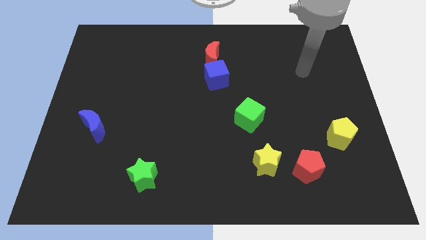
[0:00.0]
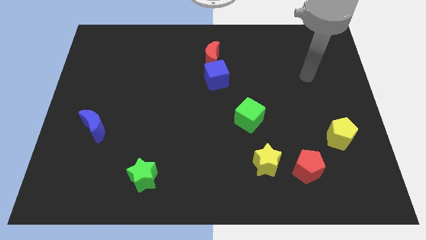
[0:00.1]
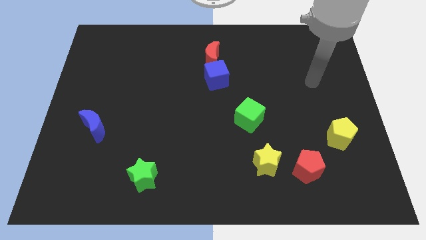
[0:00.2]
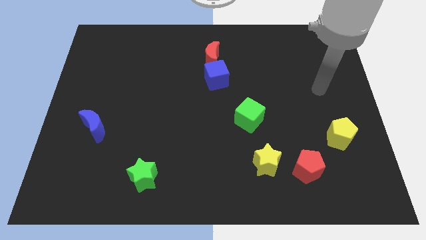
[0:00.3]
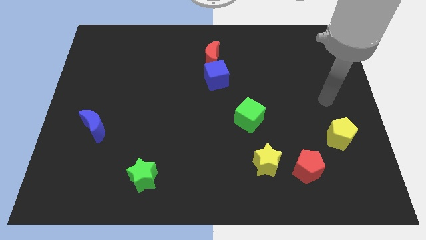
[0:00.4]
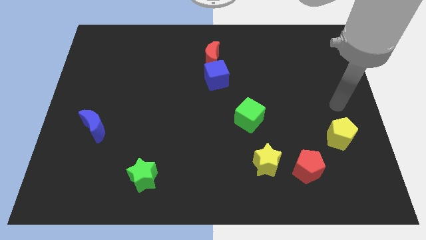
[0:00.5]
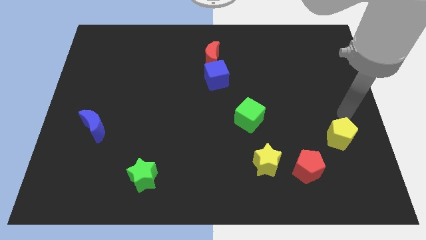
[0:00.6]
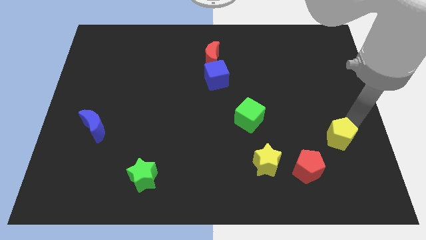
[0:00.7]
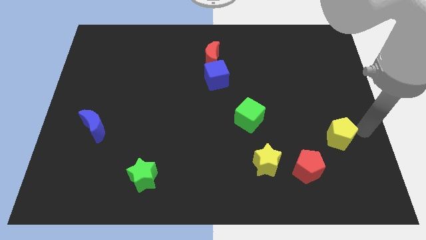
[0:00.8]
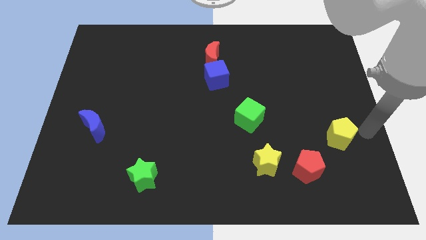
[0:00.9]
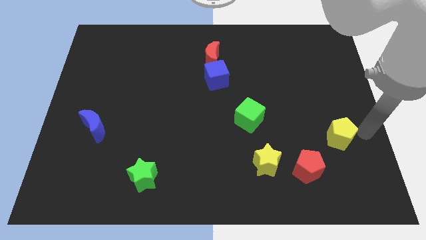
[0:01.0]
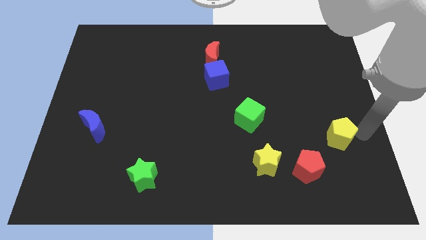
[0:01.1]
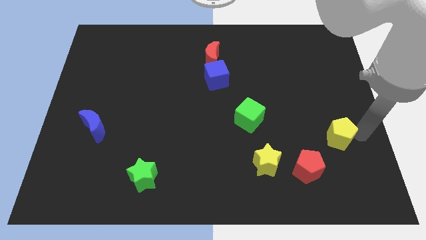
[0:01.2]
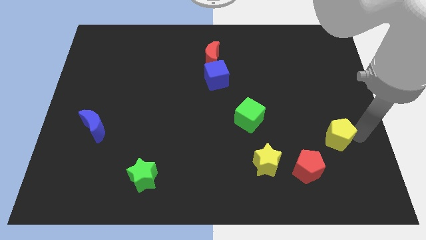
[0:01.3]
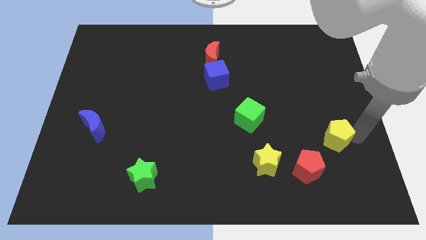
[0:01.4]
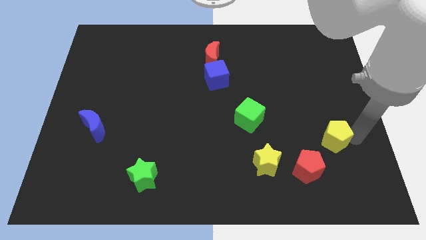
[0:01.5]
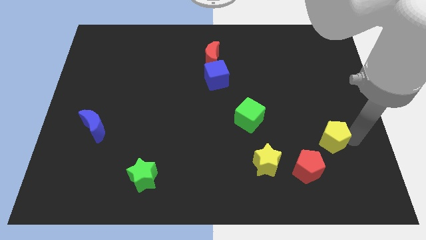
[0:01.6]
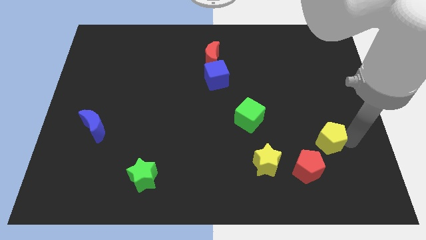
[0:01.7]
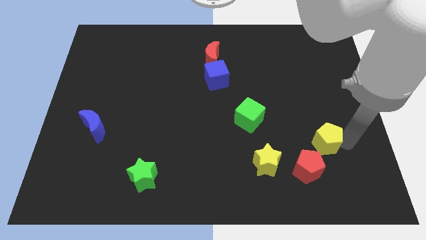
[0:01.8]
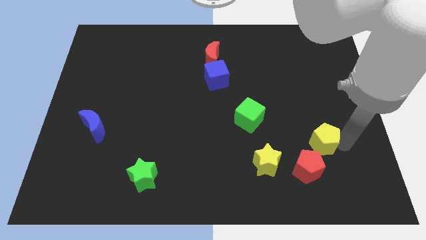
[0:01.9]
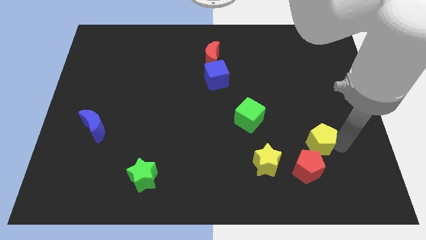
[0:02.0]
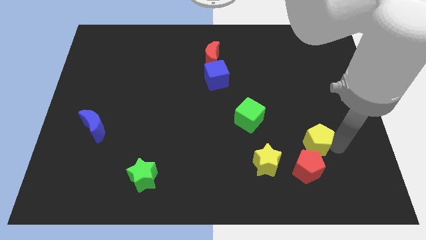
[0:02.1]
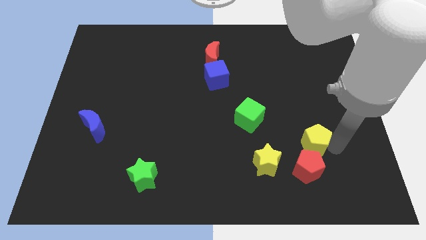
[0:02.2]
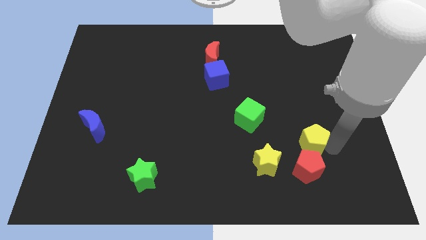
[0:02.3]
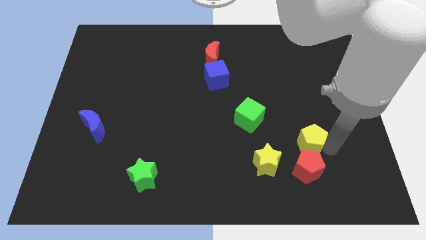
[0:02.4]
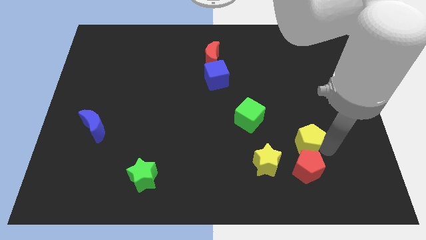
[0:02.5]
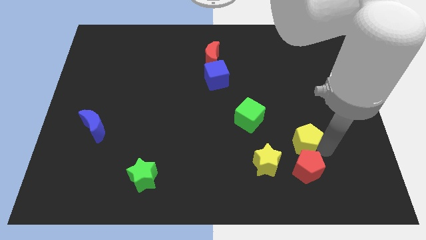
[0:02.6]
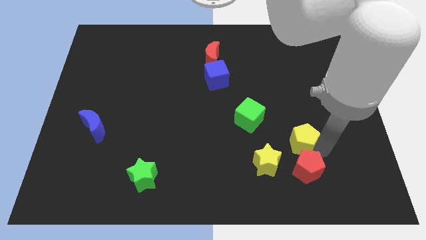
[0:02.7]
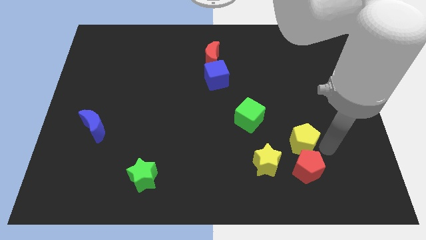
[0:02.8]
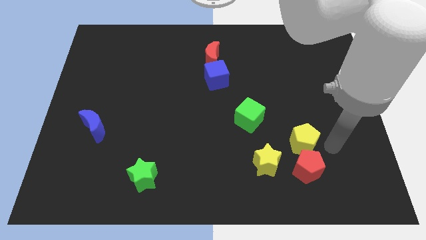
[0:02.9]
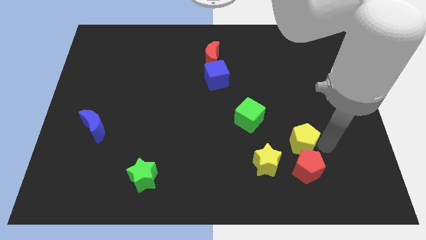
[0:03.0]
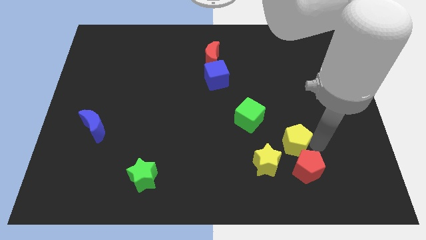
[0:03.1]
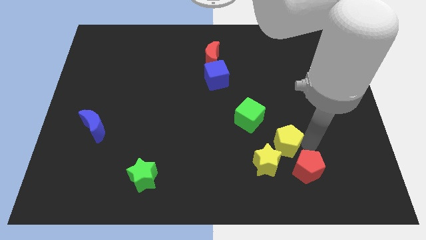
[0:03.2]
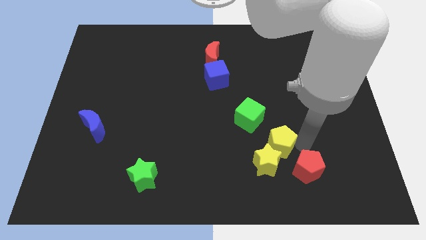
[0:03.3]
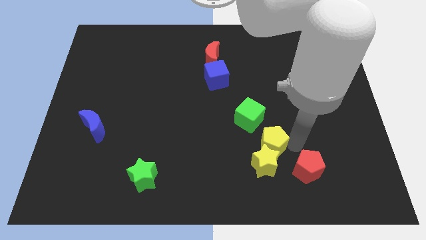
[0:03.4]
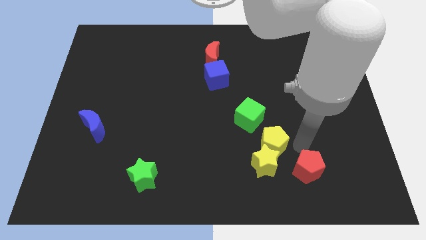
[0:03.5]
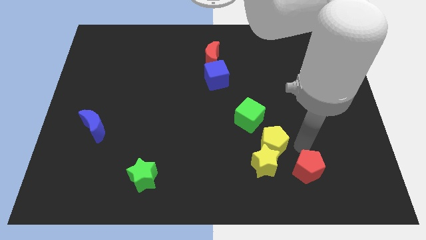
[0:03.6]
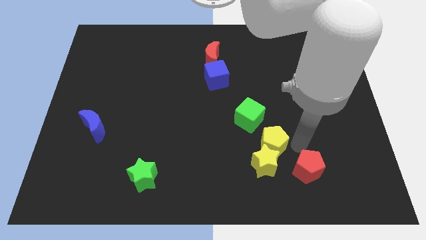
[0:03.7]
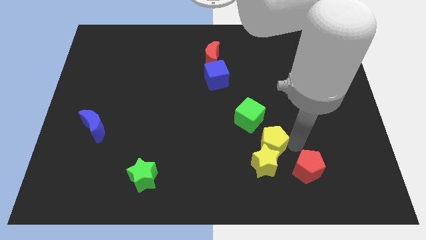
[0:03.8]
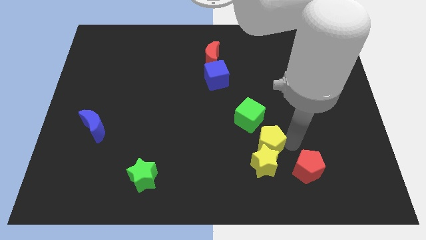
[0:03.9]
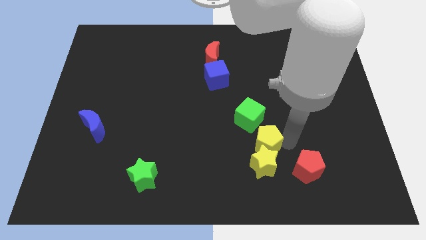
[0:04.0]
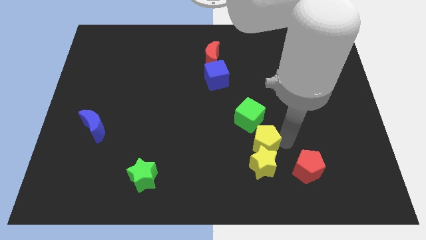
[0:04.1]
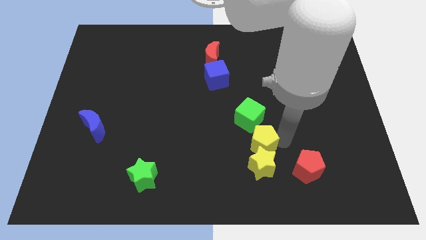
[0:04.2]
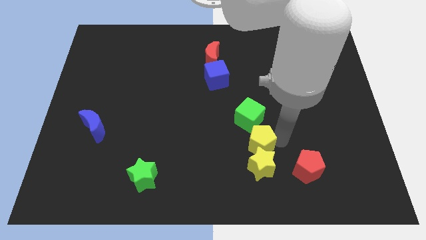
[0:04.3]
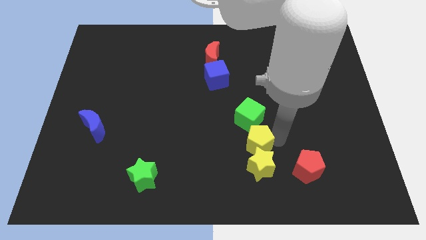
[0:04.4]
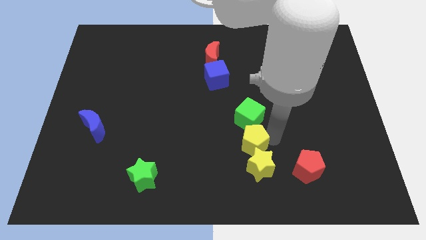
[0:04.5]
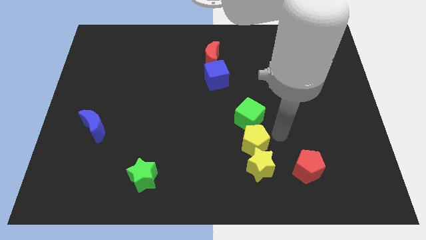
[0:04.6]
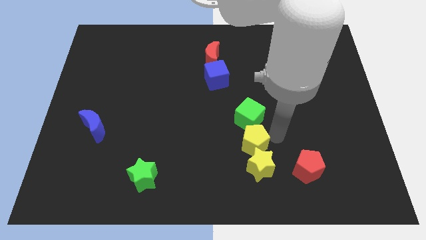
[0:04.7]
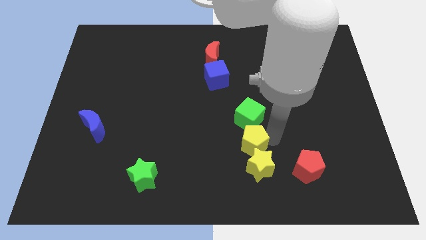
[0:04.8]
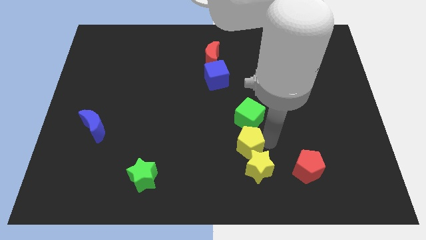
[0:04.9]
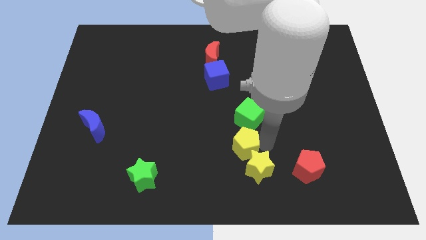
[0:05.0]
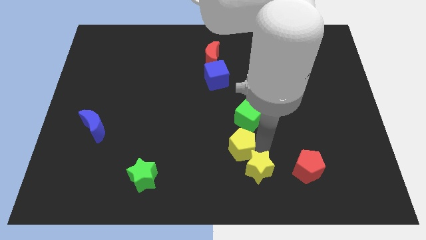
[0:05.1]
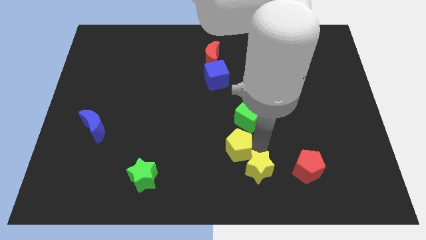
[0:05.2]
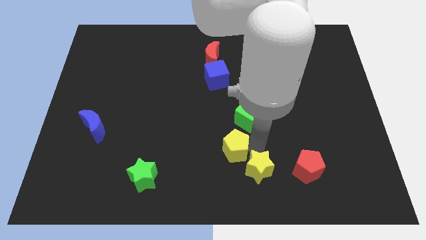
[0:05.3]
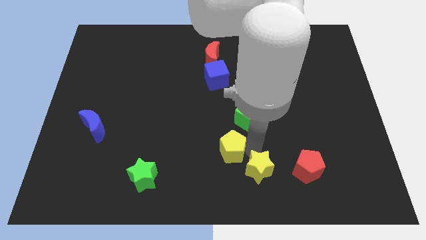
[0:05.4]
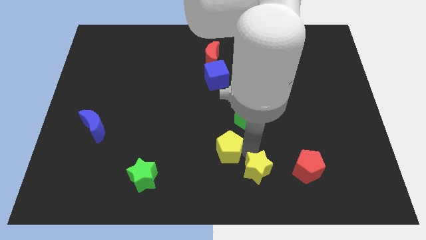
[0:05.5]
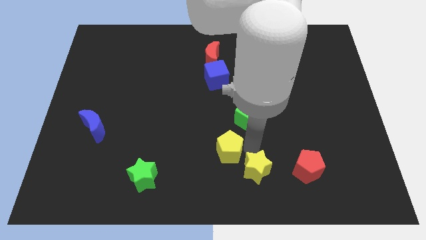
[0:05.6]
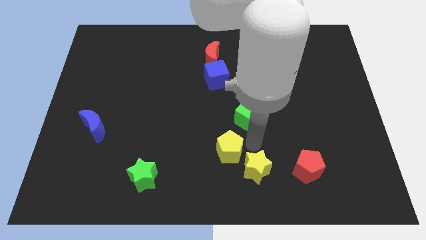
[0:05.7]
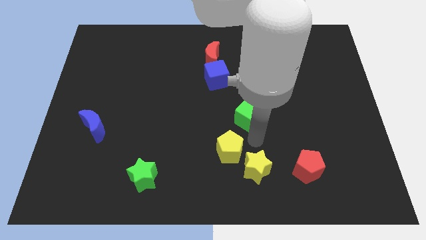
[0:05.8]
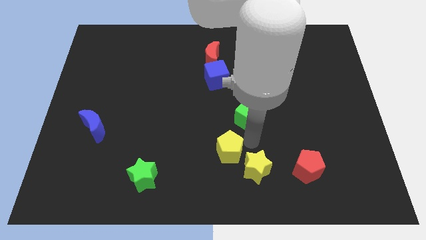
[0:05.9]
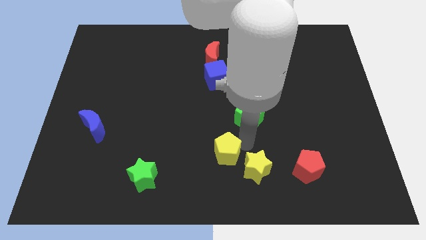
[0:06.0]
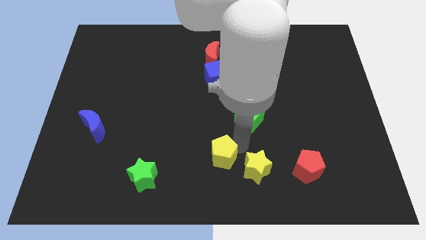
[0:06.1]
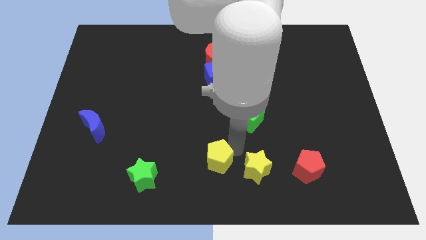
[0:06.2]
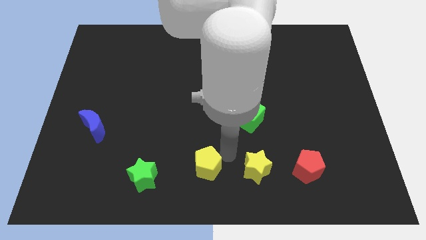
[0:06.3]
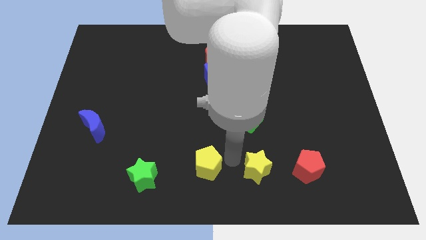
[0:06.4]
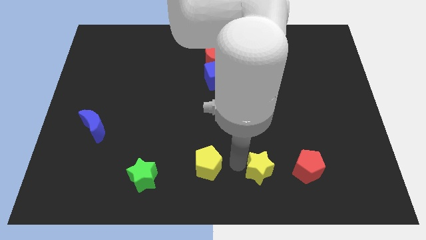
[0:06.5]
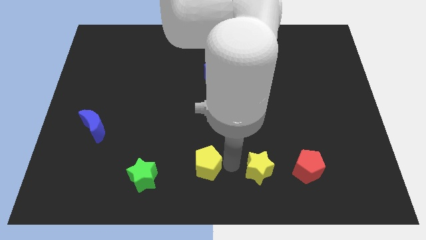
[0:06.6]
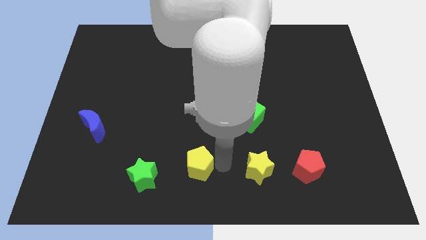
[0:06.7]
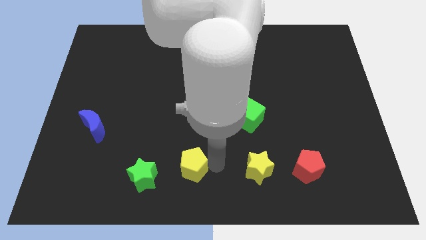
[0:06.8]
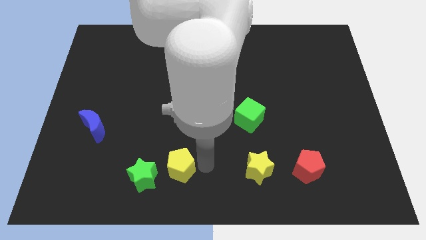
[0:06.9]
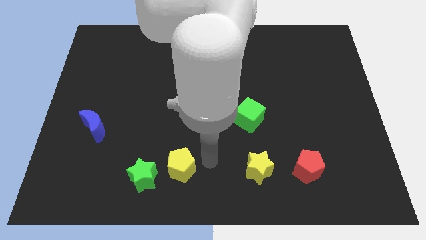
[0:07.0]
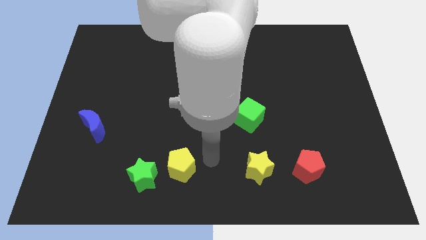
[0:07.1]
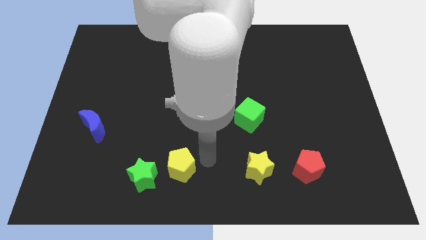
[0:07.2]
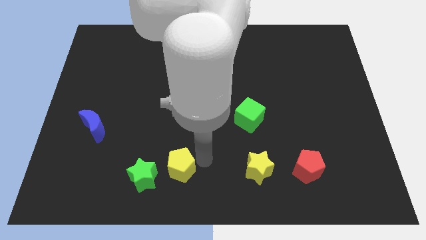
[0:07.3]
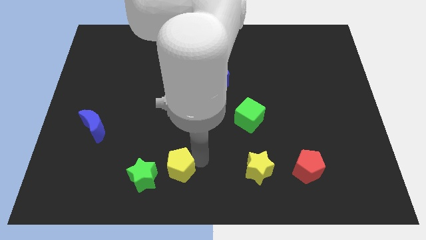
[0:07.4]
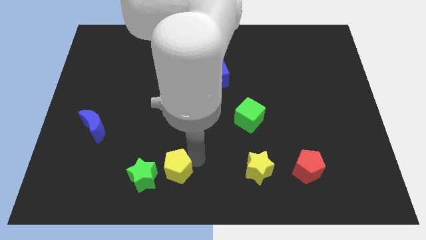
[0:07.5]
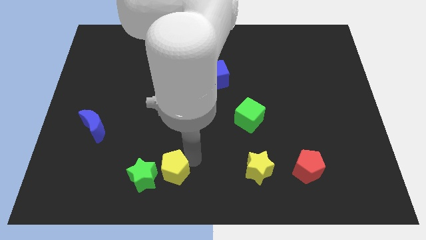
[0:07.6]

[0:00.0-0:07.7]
slide the yellow pentagon to the green star
